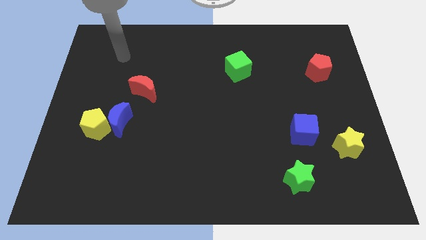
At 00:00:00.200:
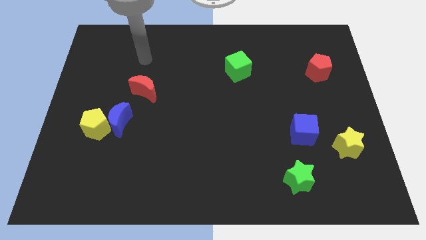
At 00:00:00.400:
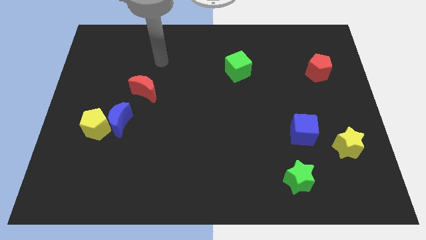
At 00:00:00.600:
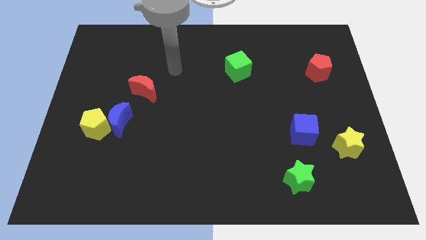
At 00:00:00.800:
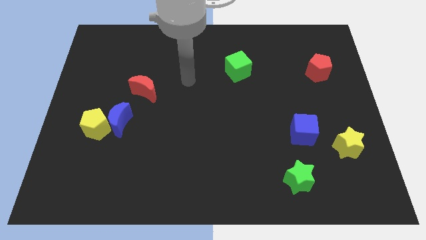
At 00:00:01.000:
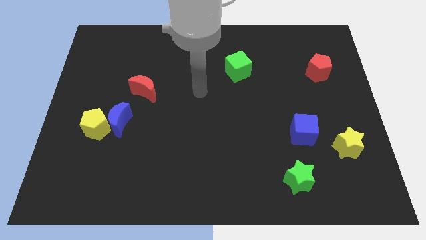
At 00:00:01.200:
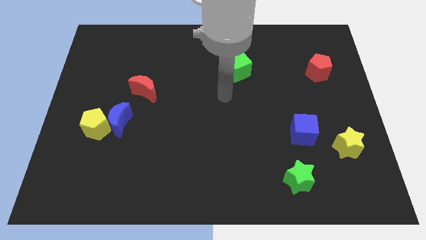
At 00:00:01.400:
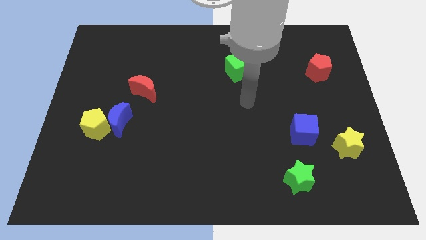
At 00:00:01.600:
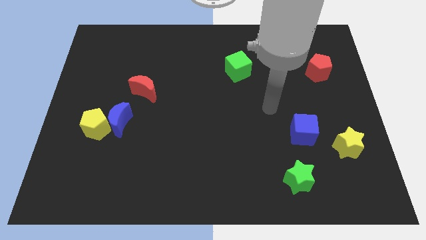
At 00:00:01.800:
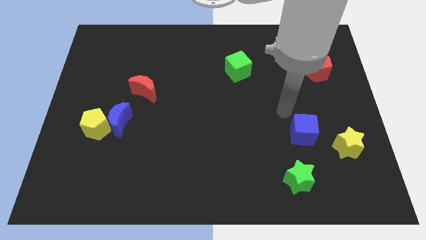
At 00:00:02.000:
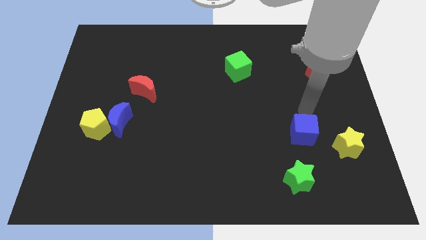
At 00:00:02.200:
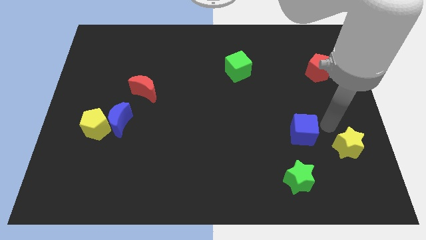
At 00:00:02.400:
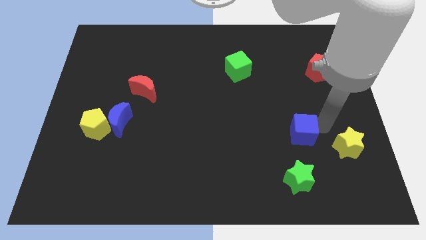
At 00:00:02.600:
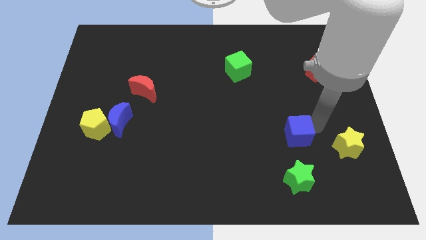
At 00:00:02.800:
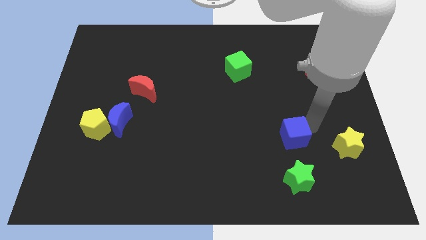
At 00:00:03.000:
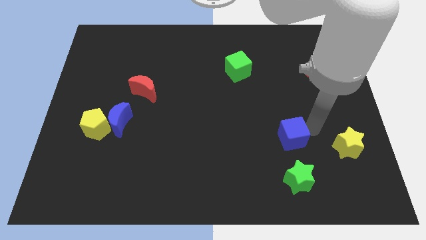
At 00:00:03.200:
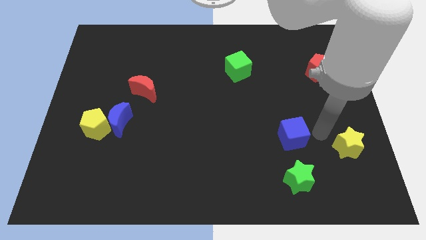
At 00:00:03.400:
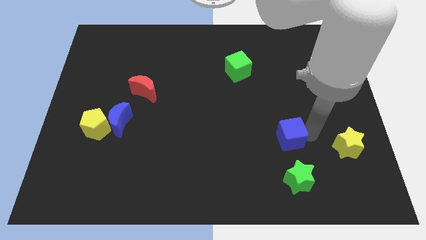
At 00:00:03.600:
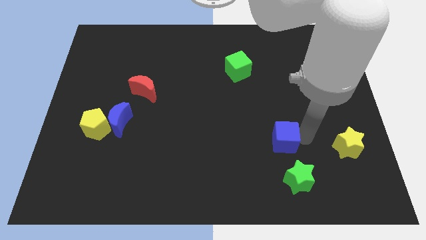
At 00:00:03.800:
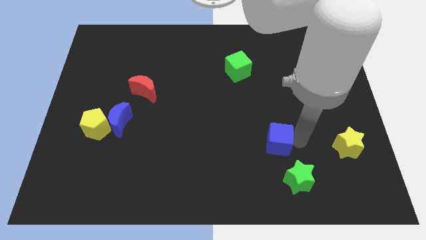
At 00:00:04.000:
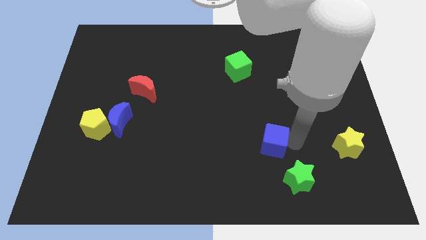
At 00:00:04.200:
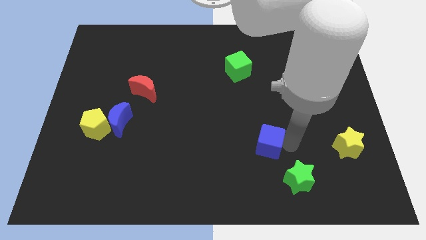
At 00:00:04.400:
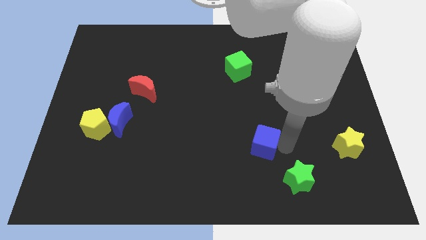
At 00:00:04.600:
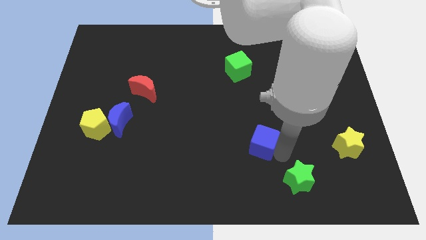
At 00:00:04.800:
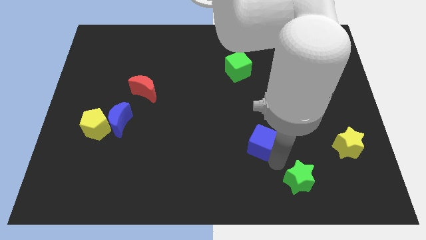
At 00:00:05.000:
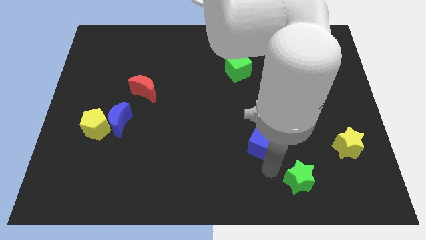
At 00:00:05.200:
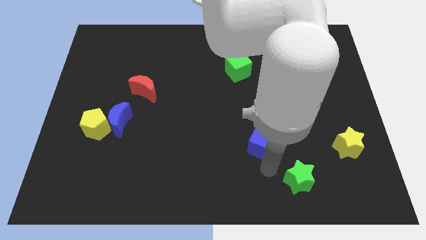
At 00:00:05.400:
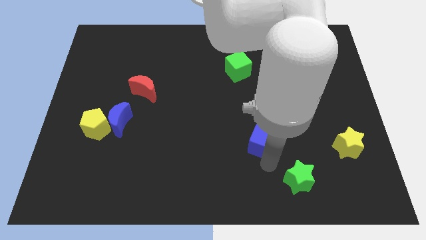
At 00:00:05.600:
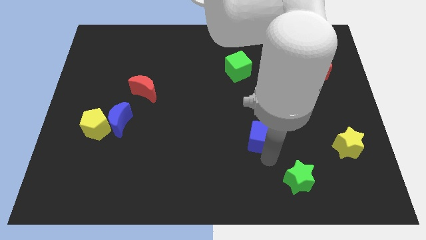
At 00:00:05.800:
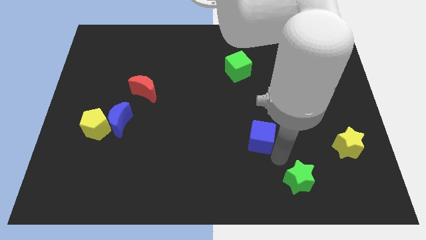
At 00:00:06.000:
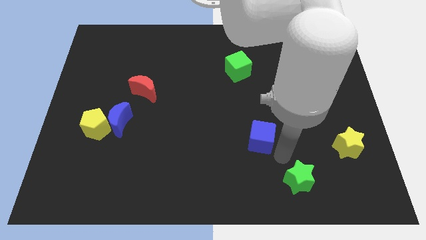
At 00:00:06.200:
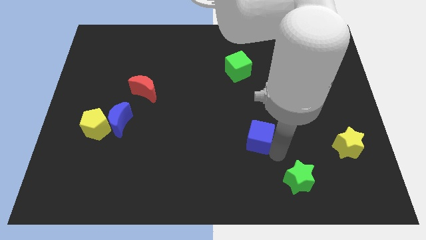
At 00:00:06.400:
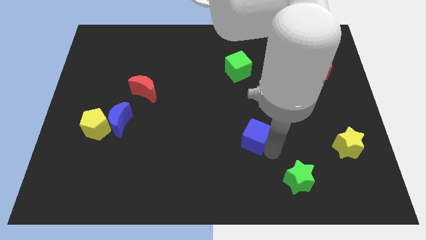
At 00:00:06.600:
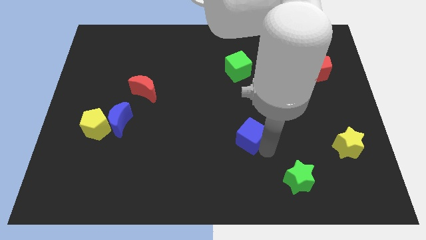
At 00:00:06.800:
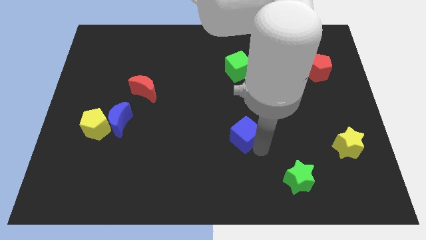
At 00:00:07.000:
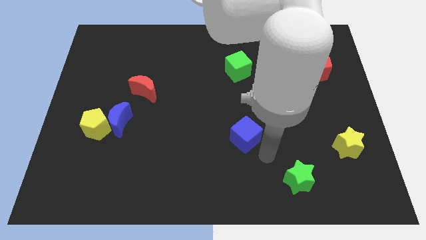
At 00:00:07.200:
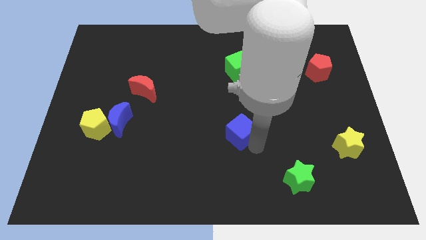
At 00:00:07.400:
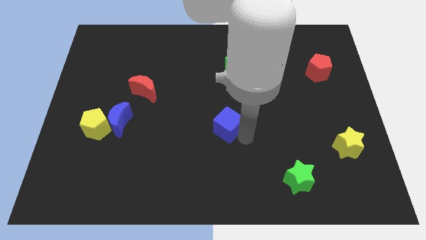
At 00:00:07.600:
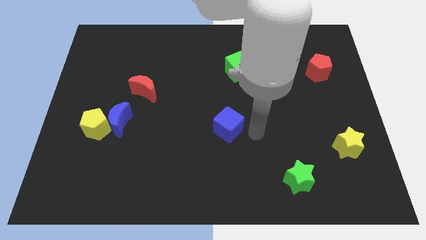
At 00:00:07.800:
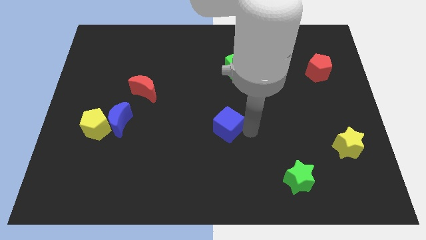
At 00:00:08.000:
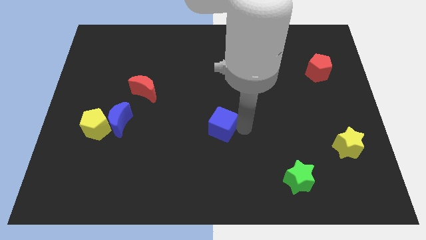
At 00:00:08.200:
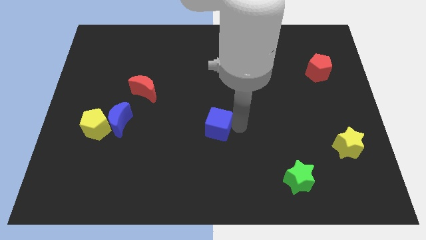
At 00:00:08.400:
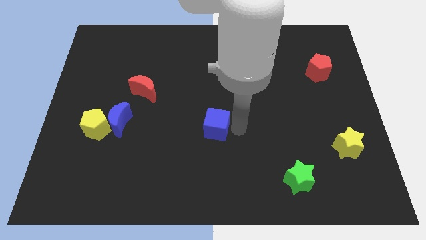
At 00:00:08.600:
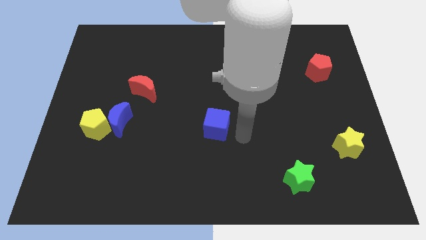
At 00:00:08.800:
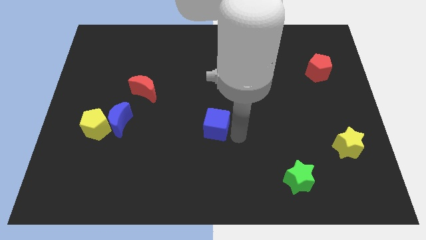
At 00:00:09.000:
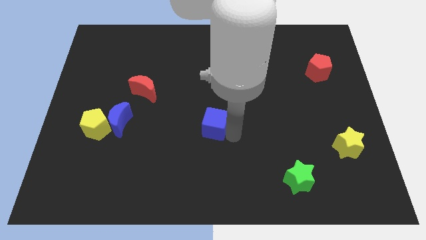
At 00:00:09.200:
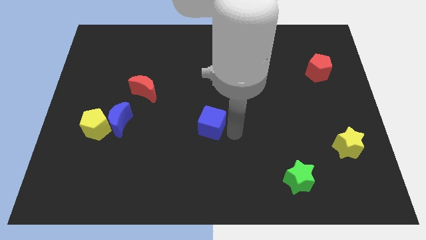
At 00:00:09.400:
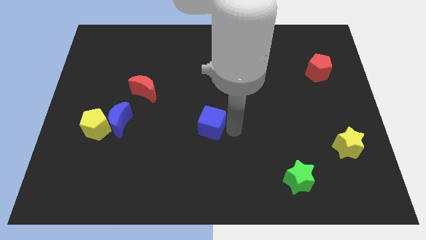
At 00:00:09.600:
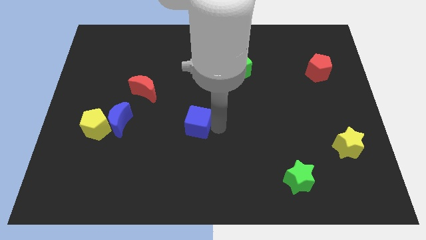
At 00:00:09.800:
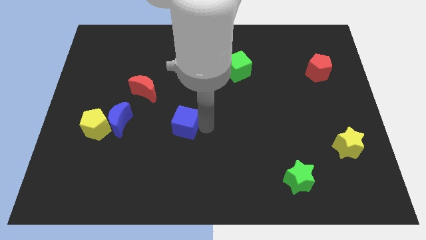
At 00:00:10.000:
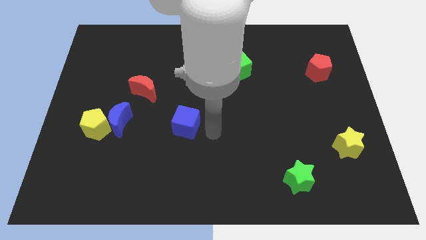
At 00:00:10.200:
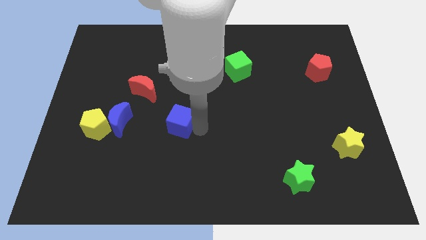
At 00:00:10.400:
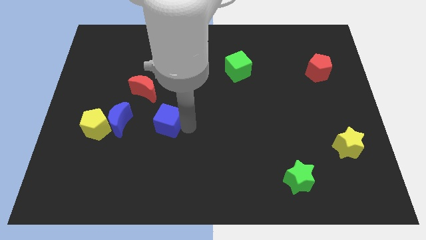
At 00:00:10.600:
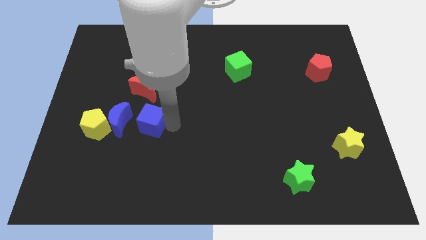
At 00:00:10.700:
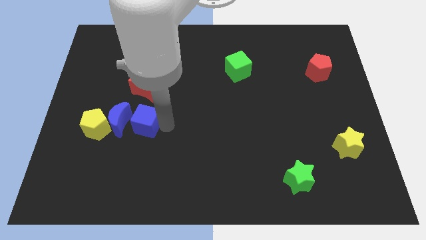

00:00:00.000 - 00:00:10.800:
slide the blue cube towards the blue moon

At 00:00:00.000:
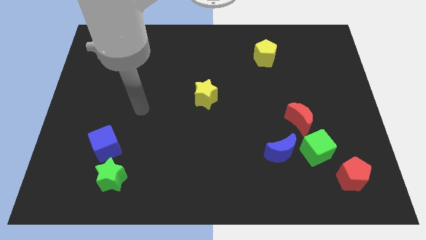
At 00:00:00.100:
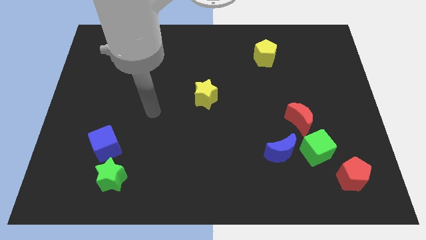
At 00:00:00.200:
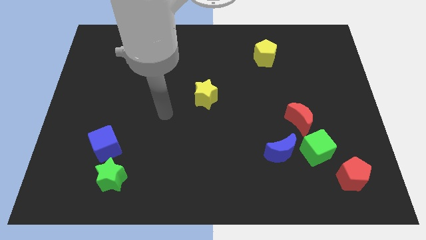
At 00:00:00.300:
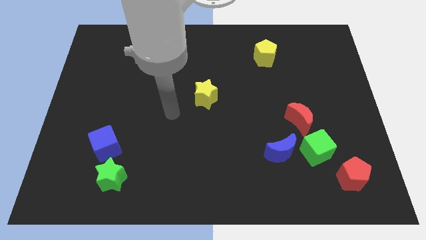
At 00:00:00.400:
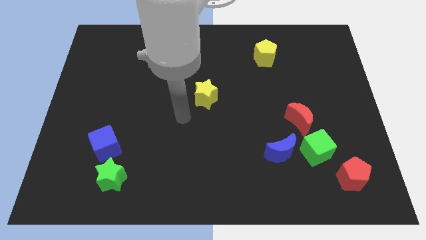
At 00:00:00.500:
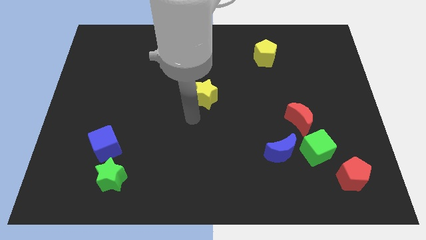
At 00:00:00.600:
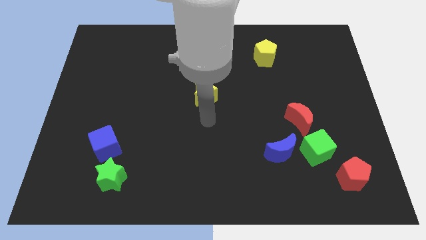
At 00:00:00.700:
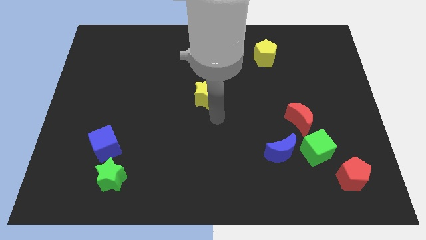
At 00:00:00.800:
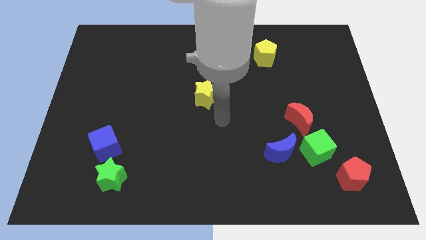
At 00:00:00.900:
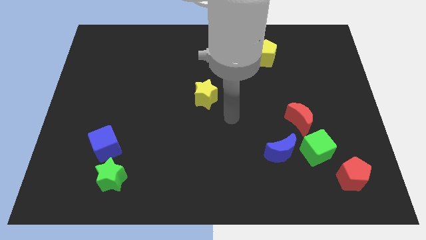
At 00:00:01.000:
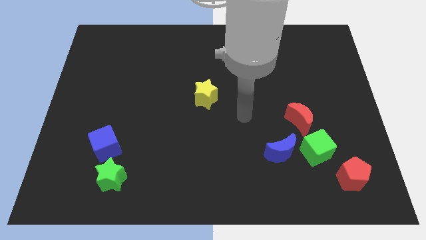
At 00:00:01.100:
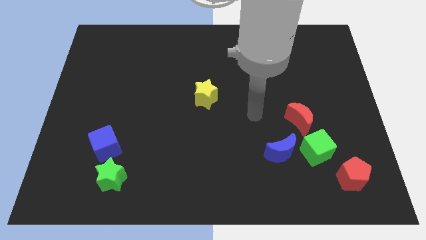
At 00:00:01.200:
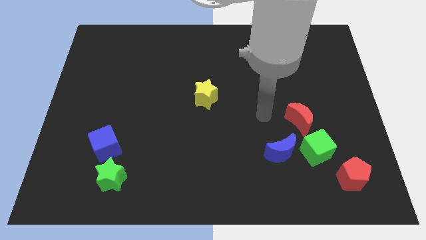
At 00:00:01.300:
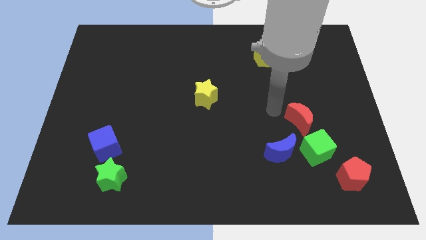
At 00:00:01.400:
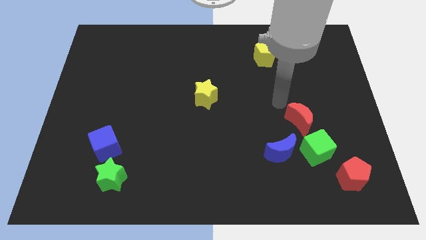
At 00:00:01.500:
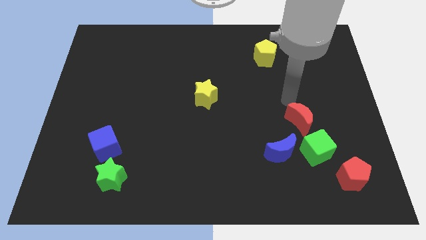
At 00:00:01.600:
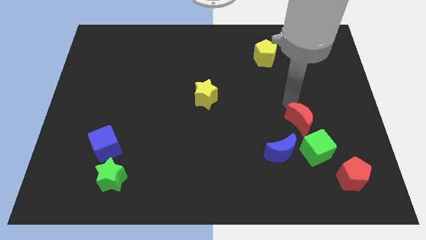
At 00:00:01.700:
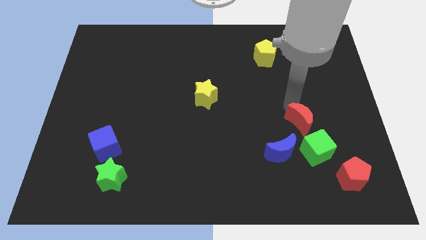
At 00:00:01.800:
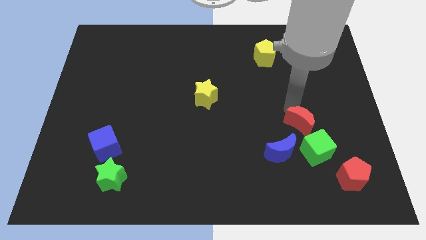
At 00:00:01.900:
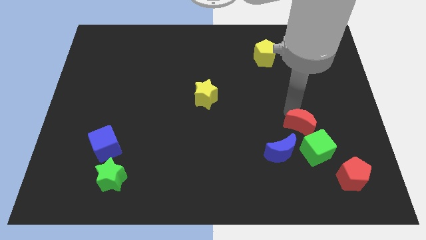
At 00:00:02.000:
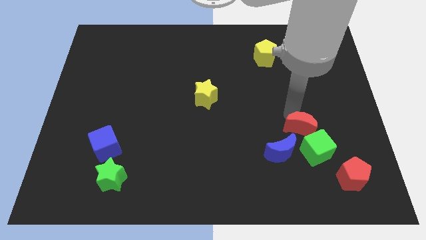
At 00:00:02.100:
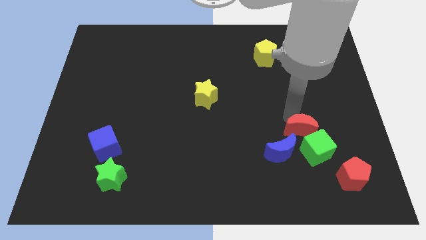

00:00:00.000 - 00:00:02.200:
push the red moon close to the green cube
